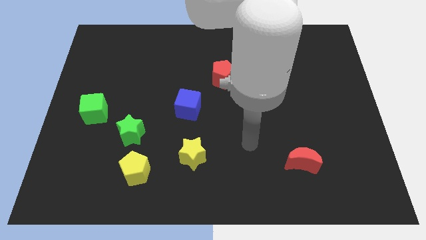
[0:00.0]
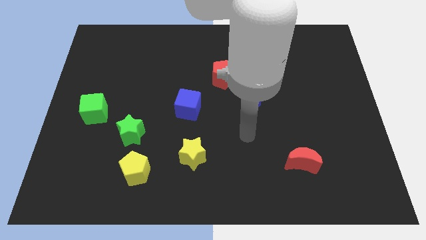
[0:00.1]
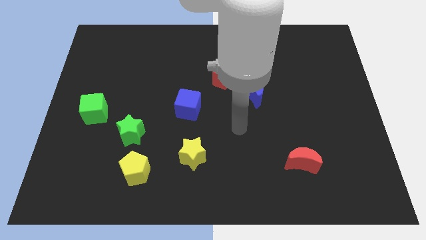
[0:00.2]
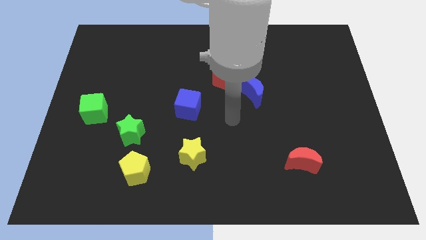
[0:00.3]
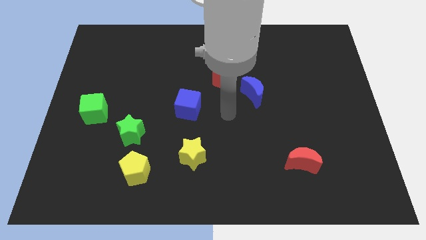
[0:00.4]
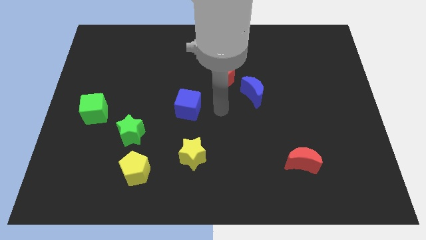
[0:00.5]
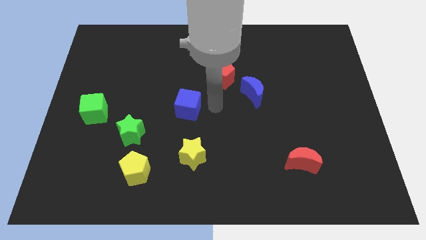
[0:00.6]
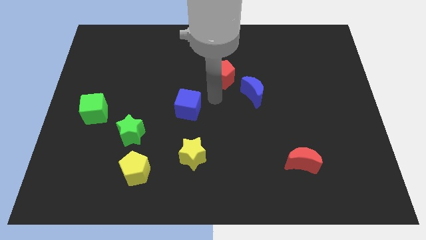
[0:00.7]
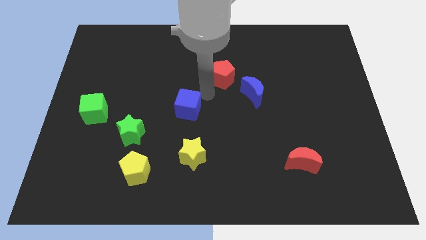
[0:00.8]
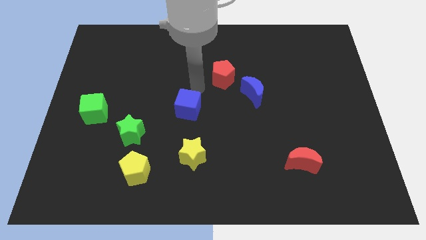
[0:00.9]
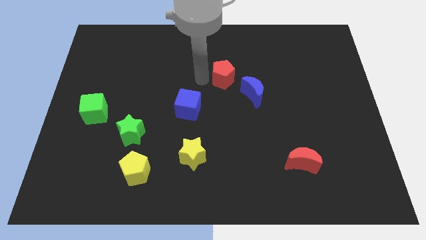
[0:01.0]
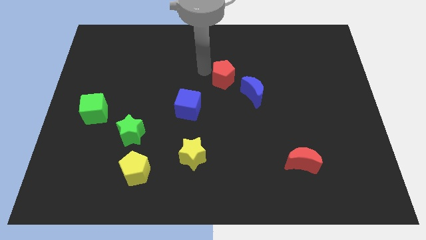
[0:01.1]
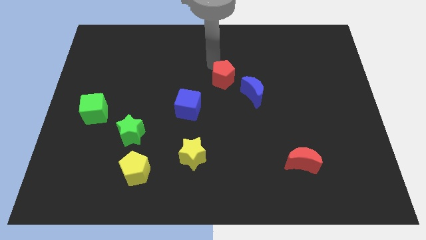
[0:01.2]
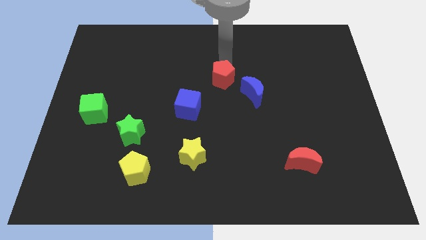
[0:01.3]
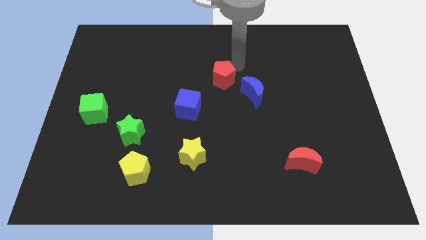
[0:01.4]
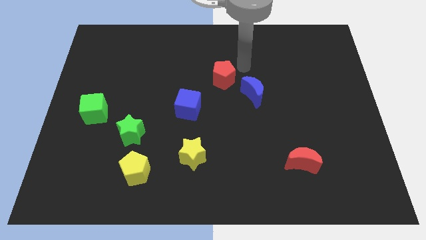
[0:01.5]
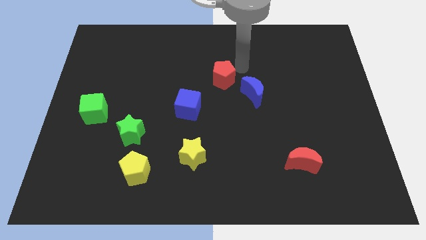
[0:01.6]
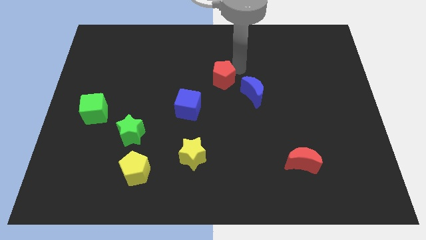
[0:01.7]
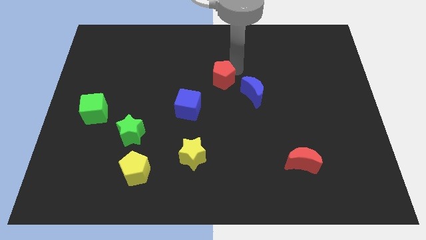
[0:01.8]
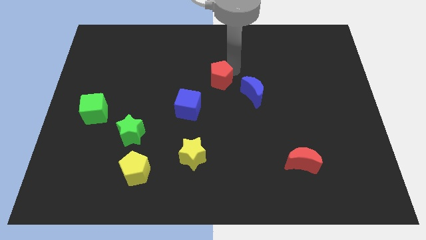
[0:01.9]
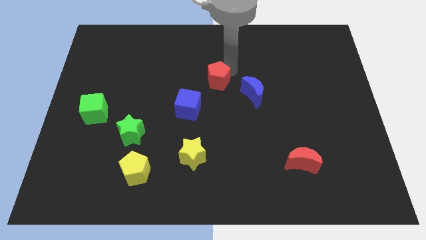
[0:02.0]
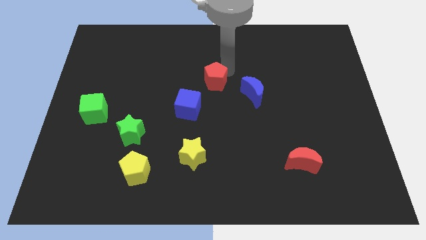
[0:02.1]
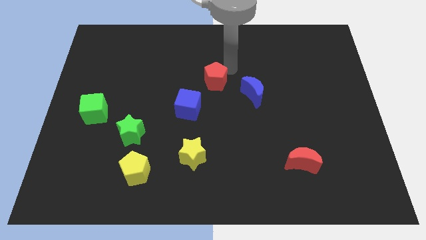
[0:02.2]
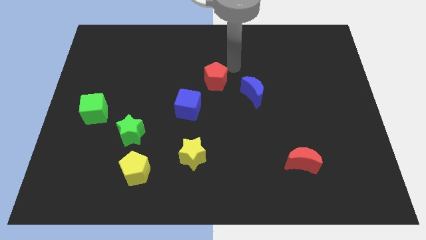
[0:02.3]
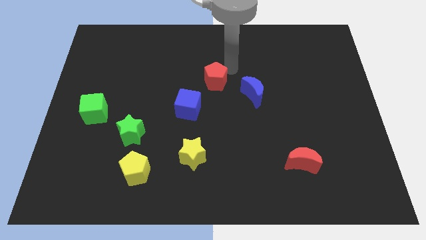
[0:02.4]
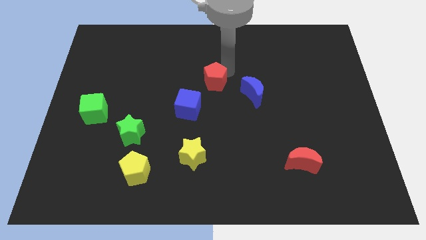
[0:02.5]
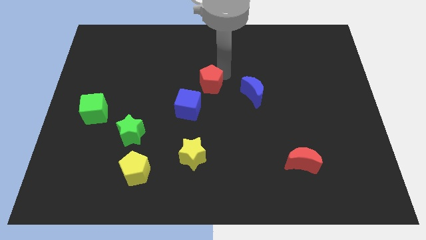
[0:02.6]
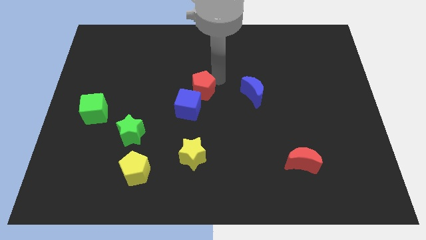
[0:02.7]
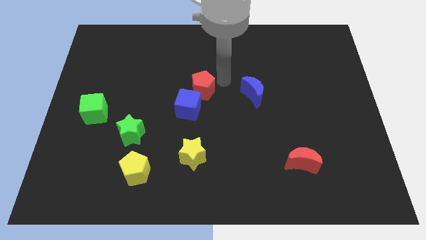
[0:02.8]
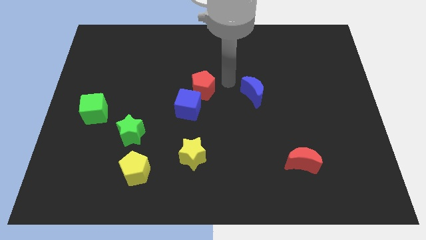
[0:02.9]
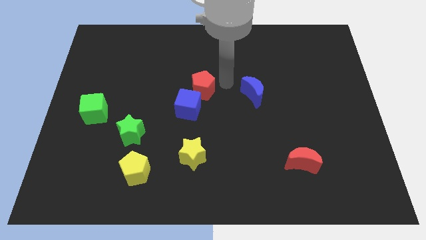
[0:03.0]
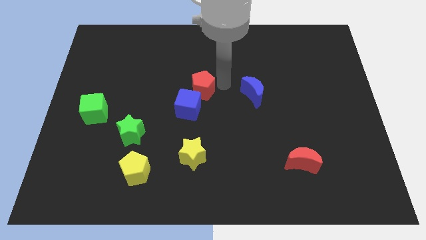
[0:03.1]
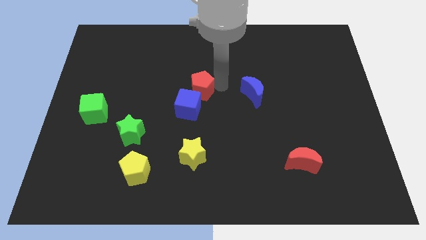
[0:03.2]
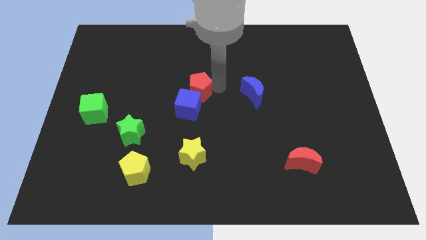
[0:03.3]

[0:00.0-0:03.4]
slightly push the red pentagon diagonally down and to the left

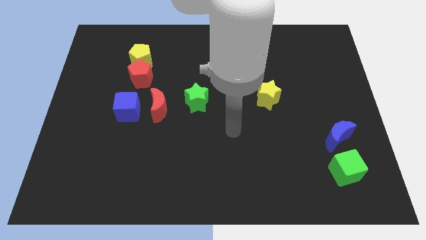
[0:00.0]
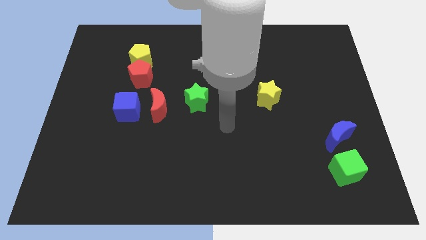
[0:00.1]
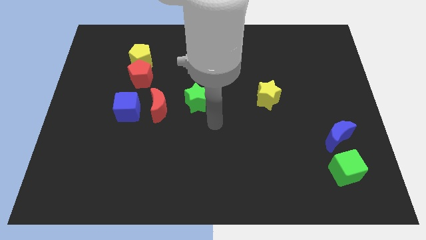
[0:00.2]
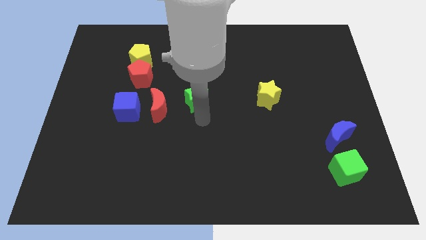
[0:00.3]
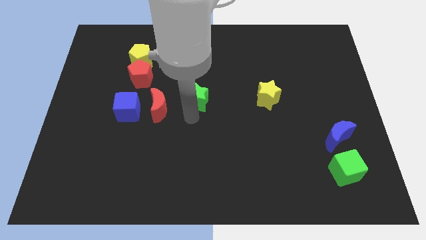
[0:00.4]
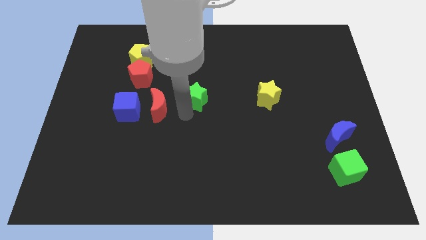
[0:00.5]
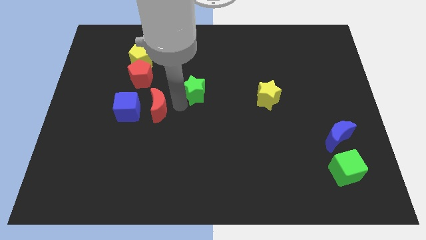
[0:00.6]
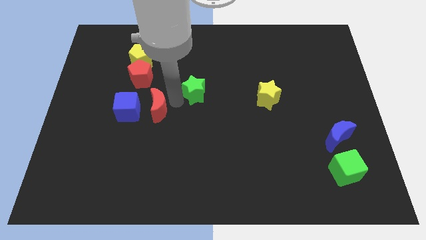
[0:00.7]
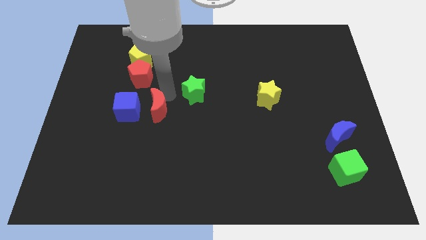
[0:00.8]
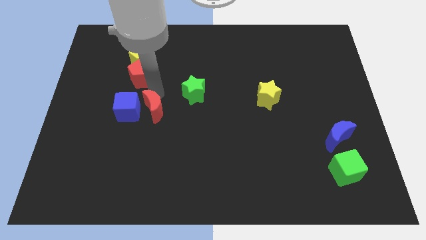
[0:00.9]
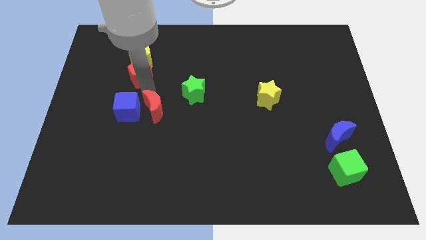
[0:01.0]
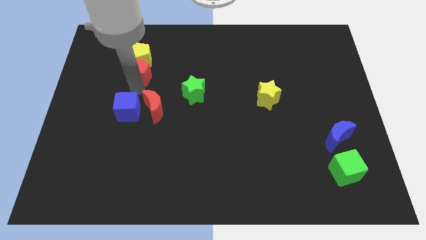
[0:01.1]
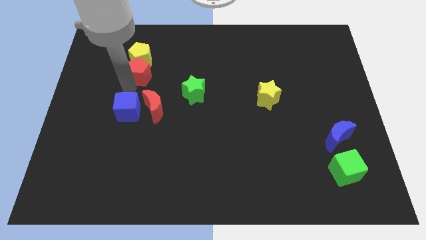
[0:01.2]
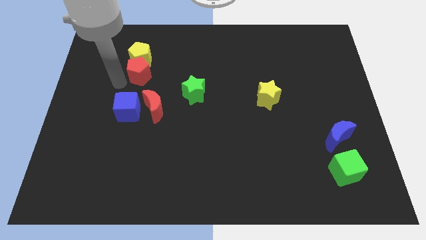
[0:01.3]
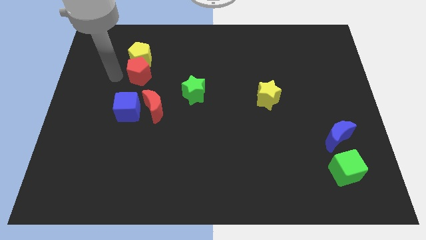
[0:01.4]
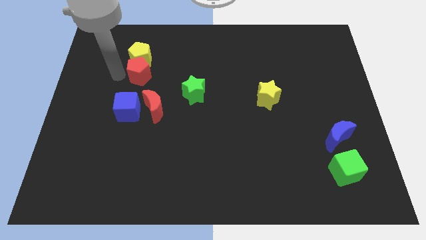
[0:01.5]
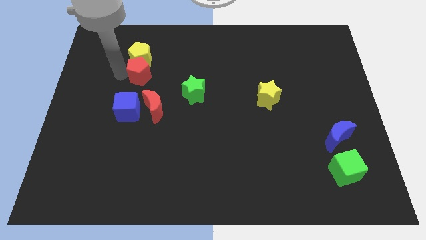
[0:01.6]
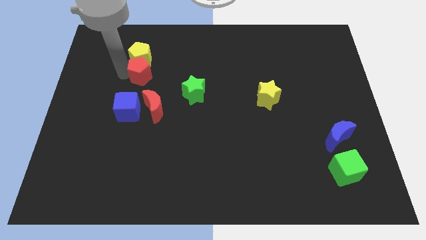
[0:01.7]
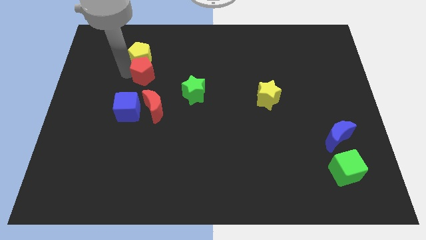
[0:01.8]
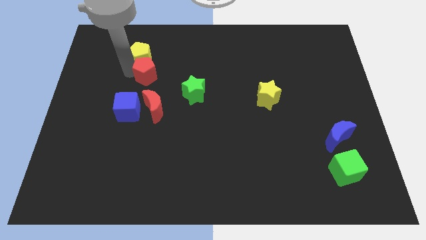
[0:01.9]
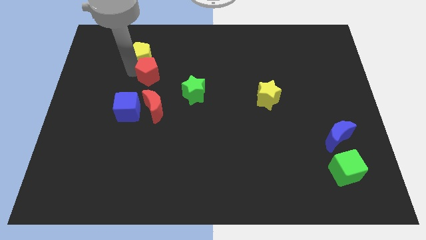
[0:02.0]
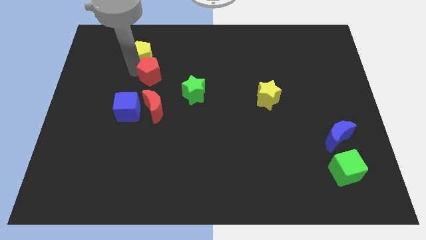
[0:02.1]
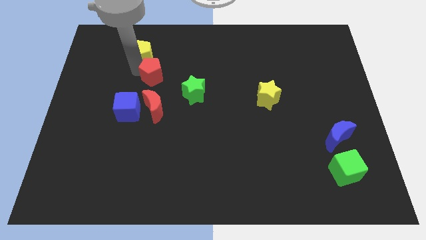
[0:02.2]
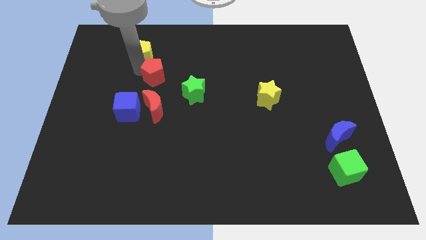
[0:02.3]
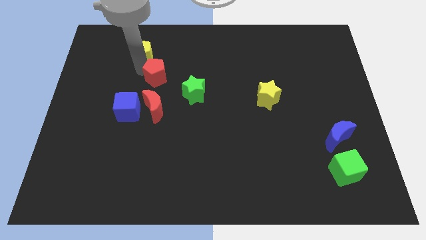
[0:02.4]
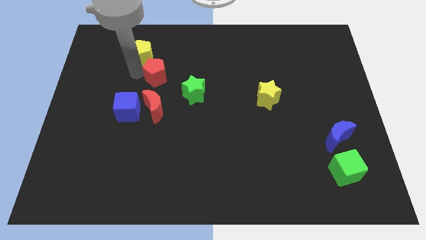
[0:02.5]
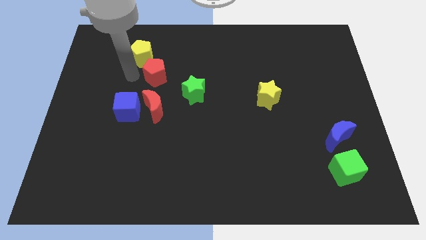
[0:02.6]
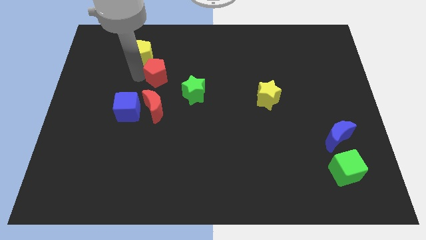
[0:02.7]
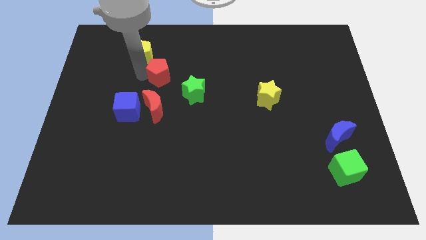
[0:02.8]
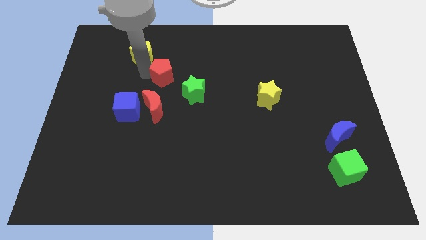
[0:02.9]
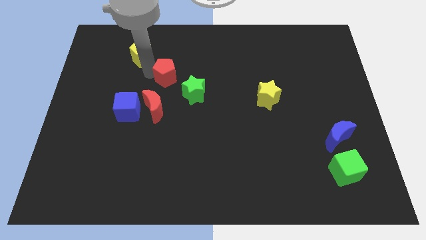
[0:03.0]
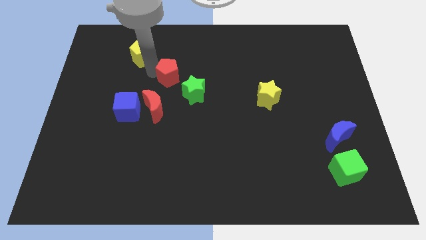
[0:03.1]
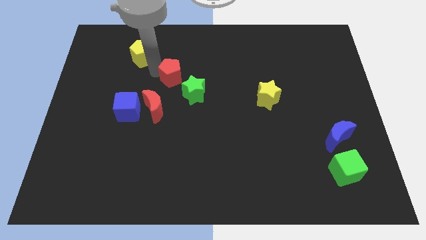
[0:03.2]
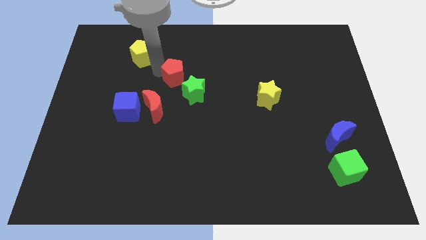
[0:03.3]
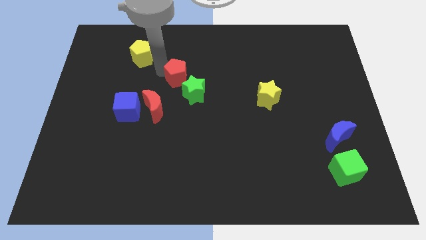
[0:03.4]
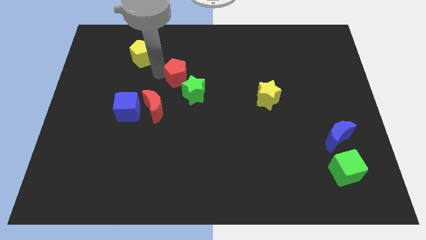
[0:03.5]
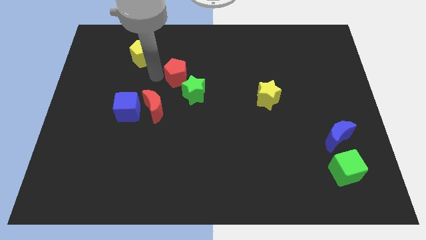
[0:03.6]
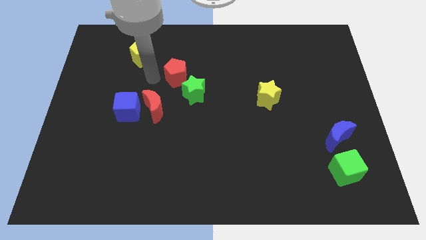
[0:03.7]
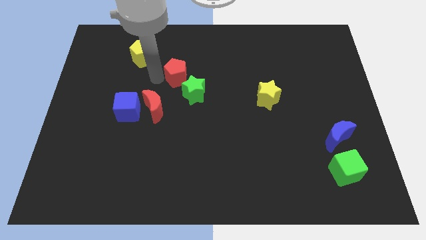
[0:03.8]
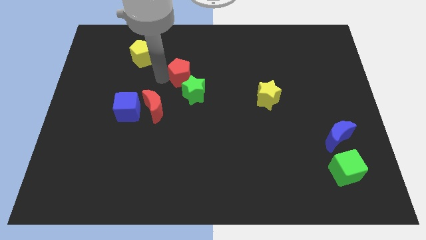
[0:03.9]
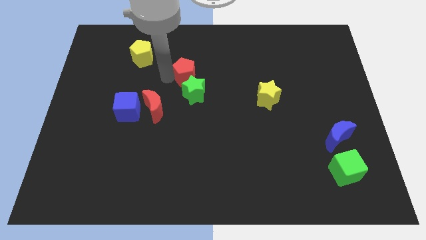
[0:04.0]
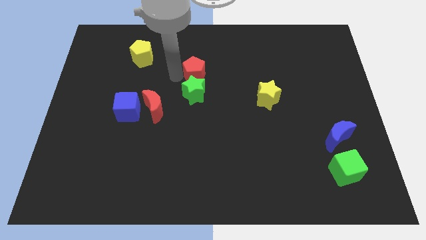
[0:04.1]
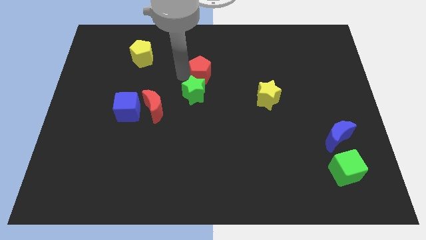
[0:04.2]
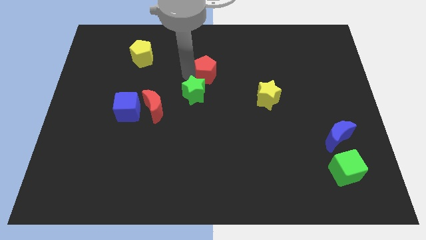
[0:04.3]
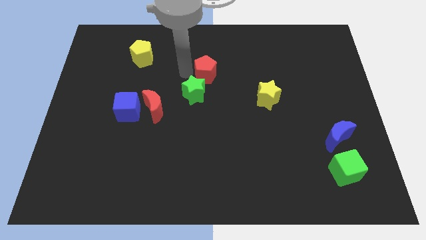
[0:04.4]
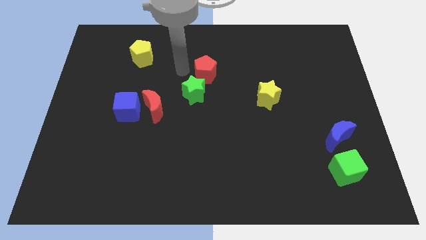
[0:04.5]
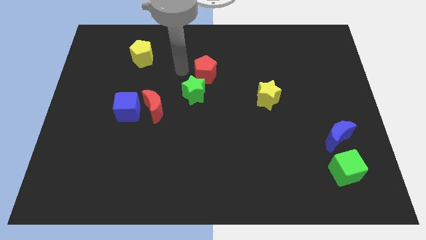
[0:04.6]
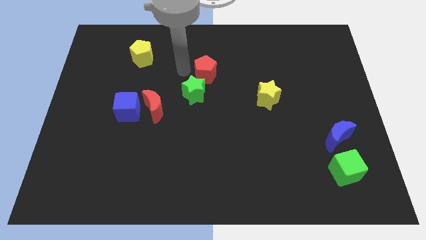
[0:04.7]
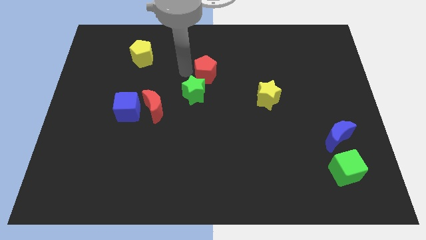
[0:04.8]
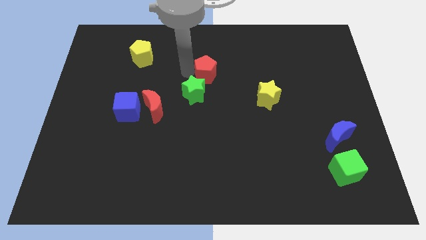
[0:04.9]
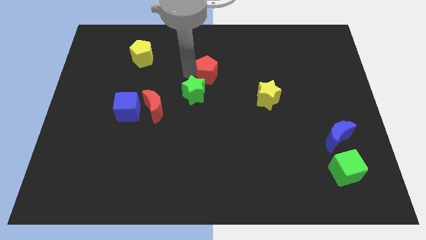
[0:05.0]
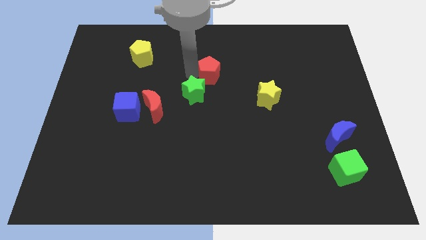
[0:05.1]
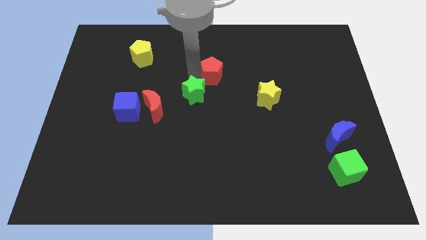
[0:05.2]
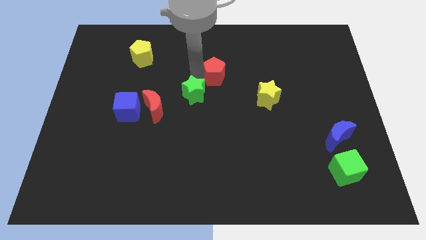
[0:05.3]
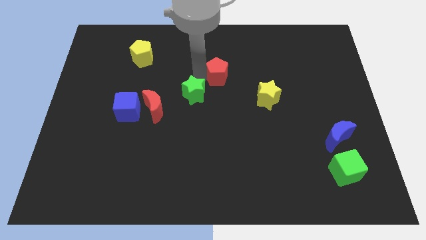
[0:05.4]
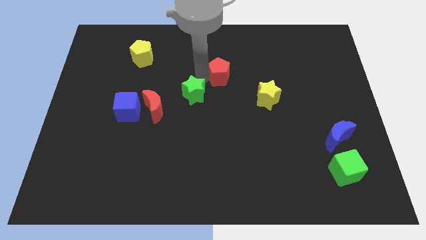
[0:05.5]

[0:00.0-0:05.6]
slide the red pentagon right
